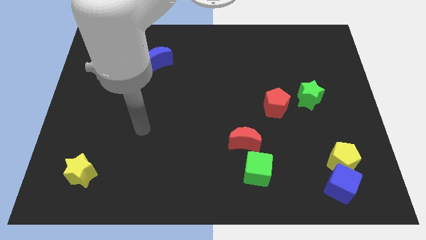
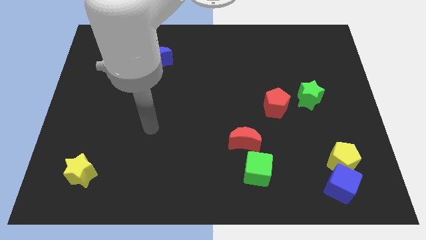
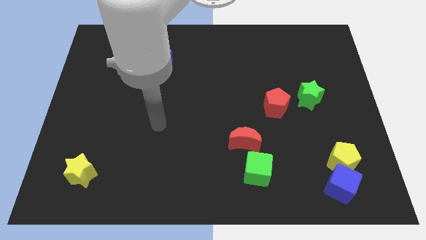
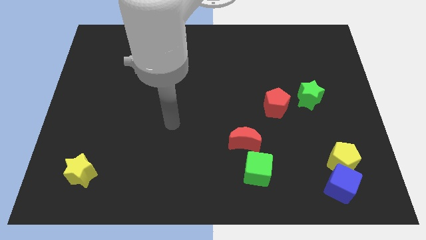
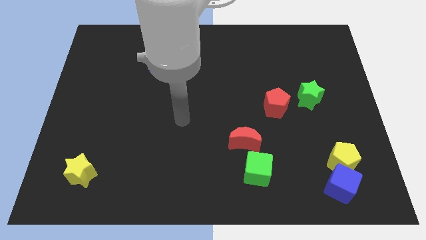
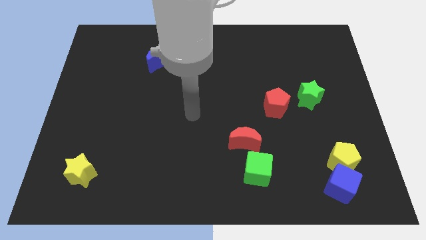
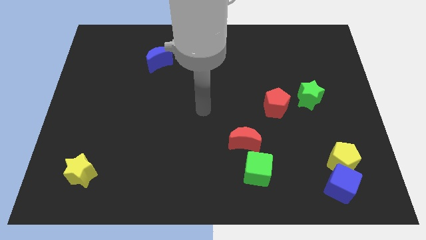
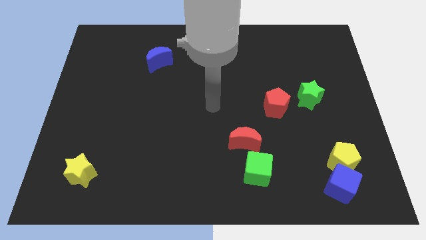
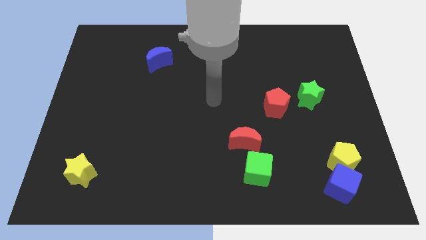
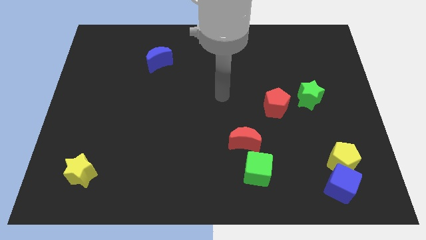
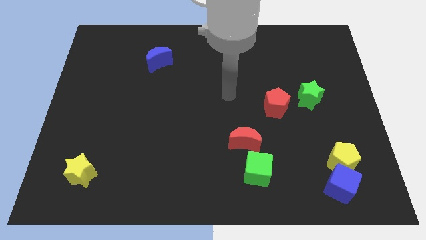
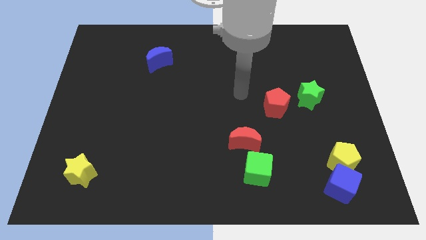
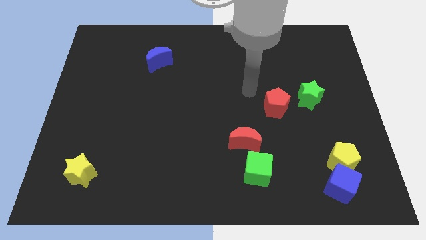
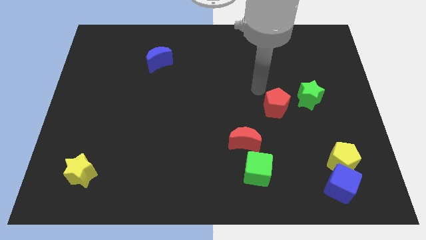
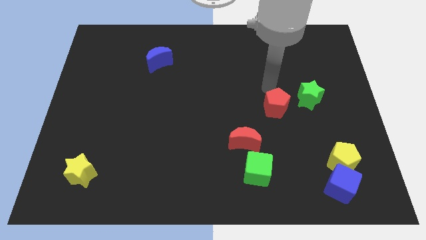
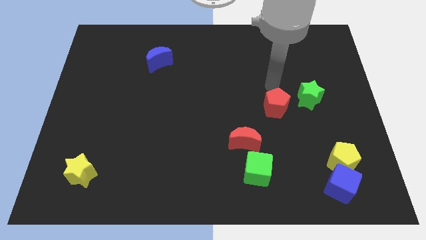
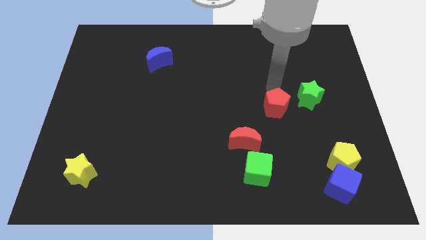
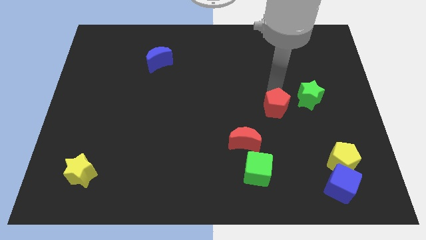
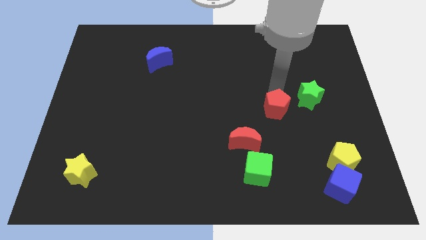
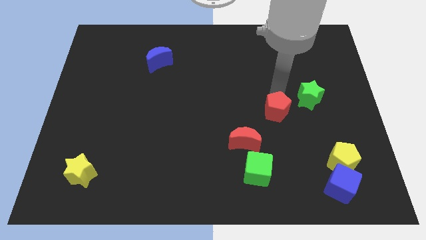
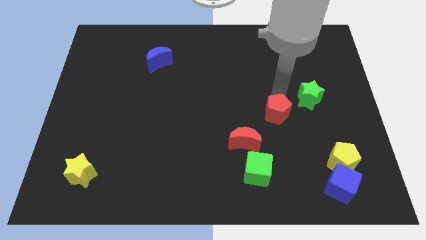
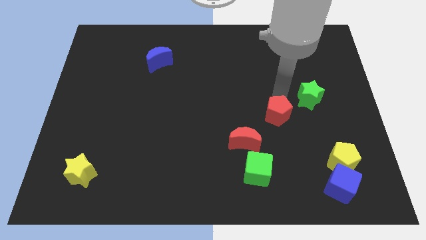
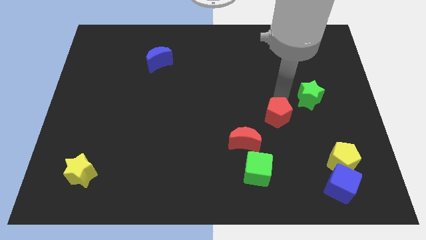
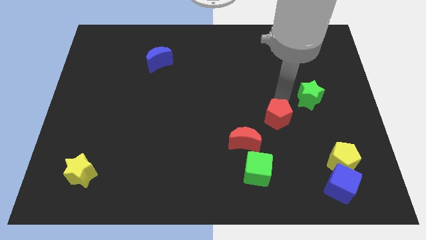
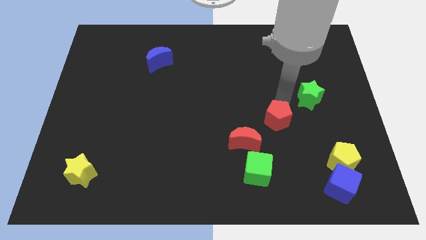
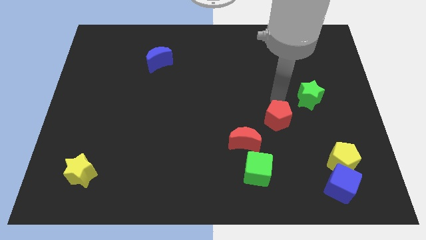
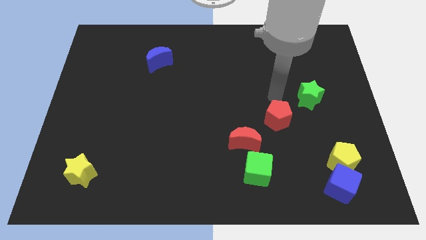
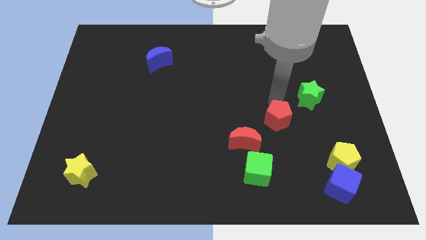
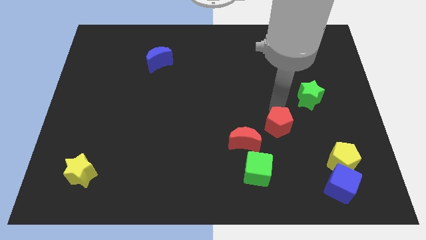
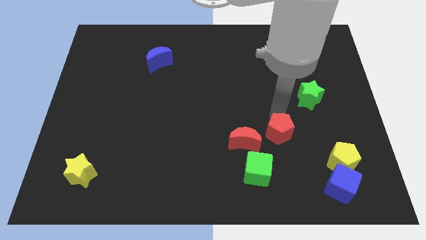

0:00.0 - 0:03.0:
push the red pentagon slightly down

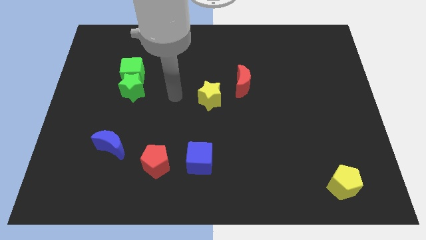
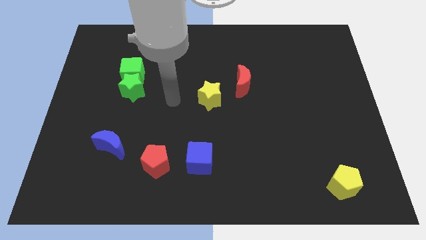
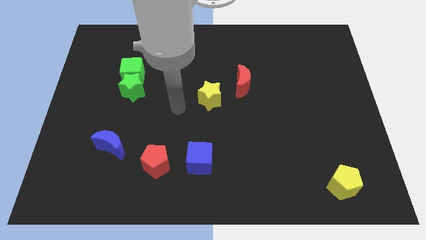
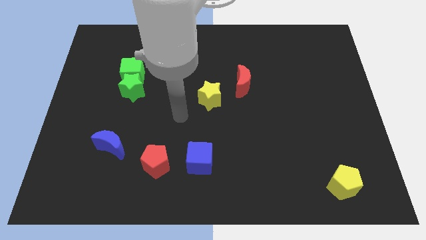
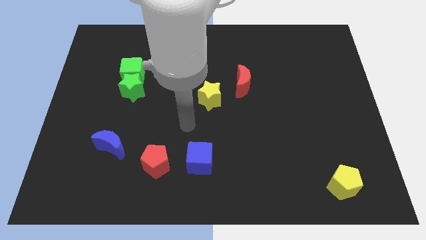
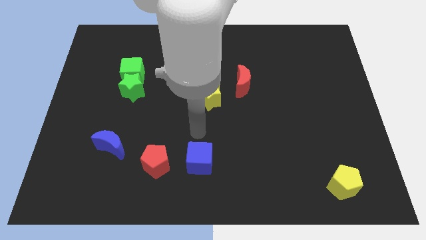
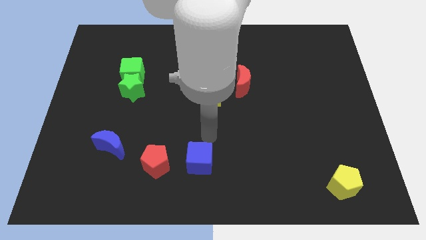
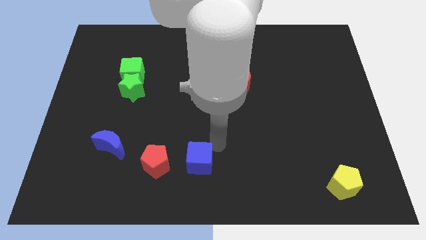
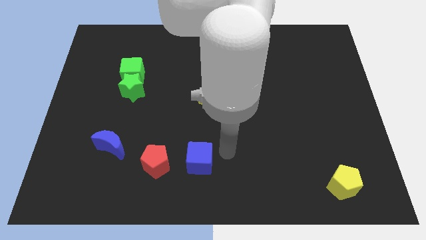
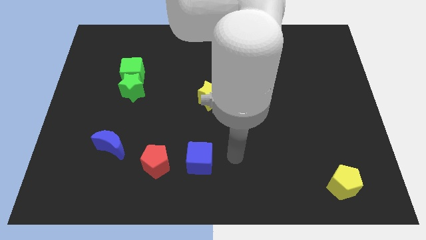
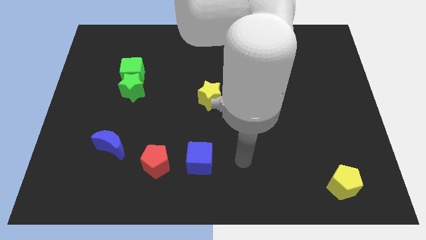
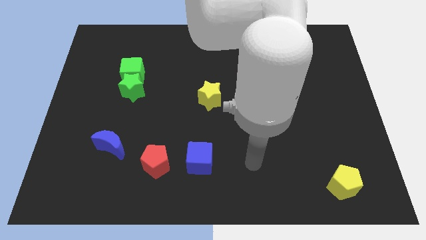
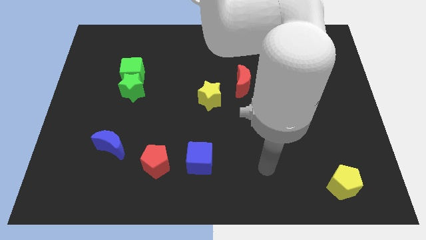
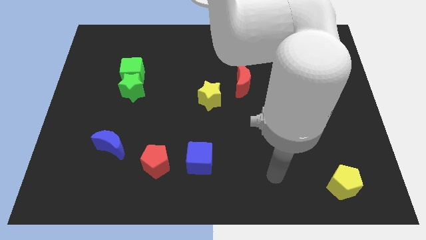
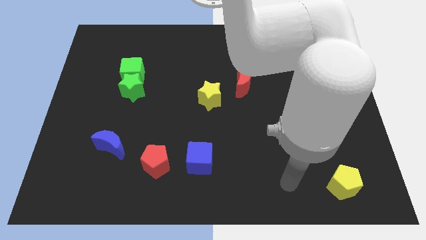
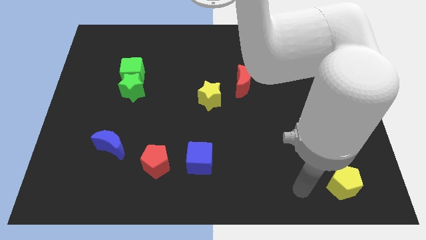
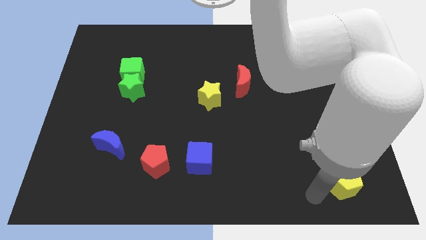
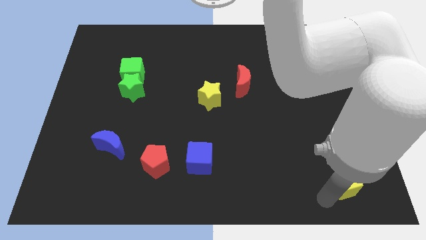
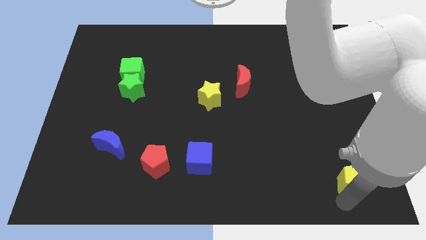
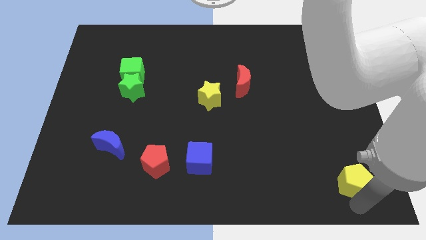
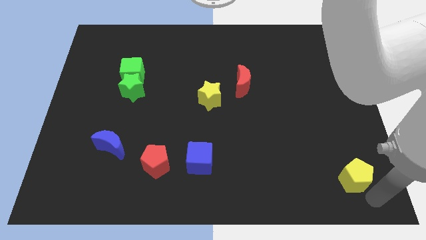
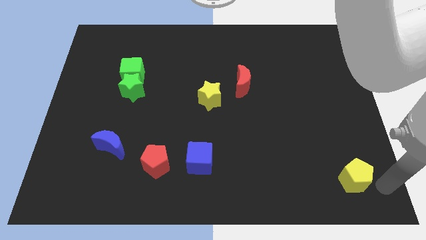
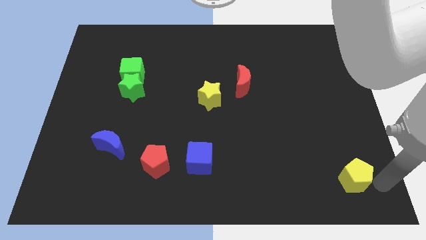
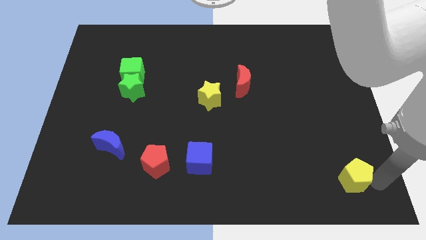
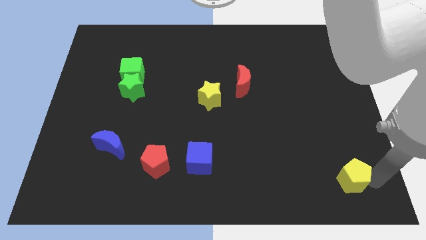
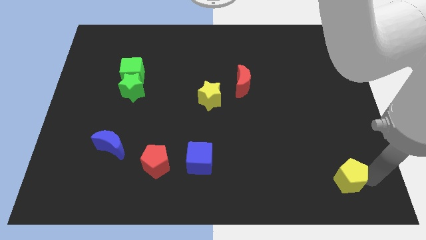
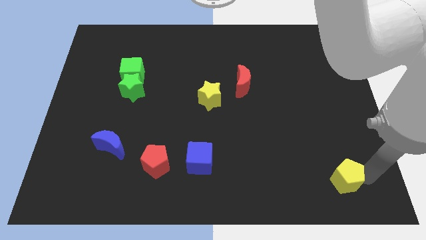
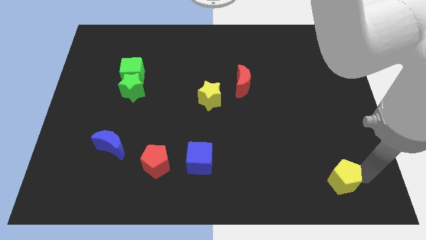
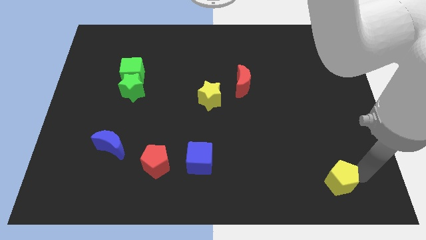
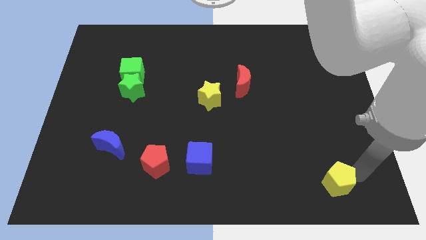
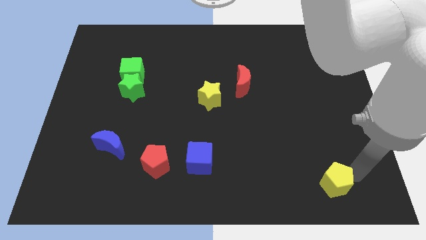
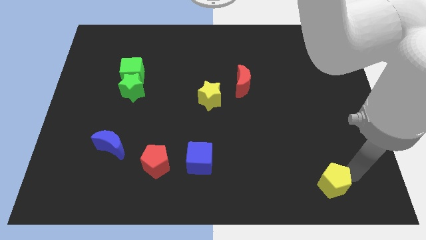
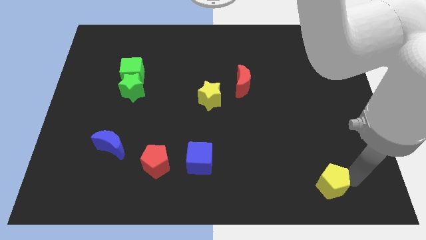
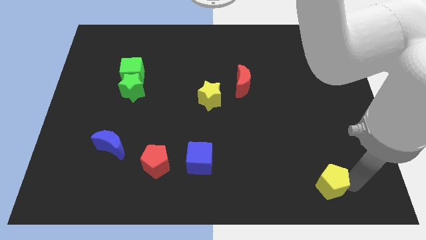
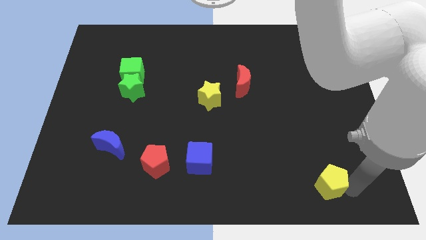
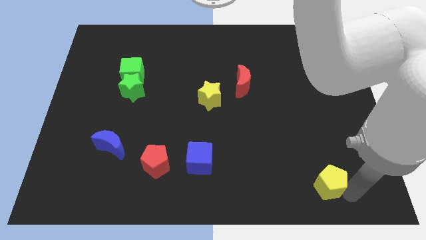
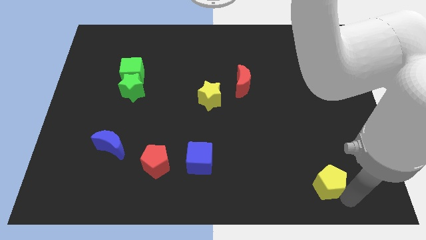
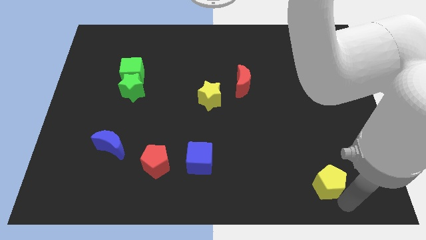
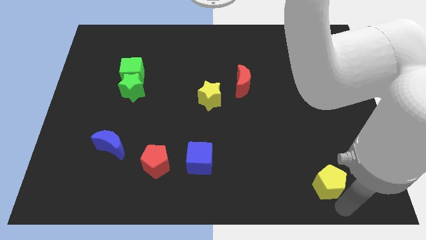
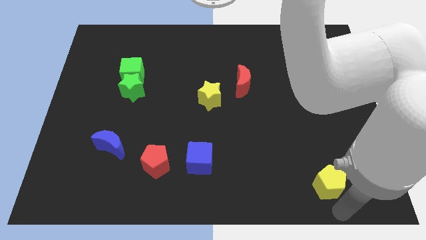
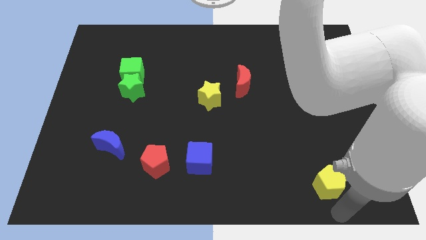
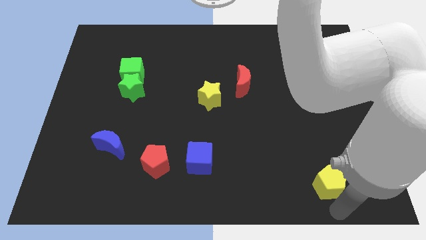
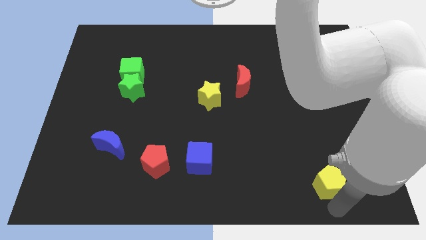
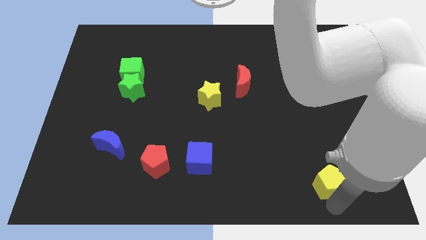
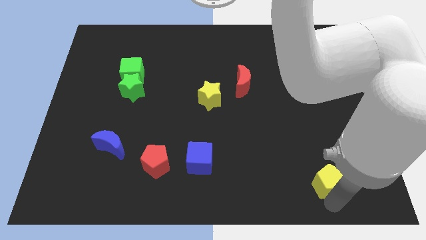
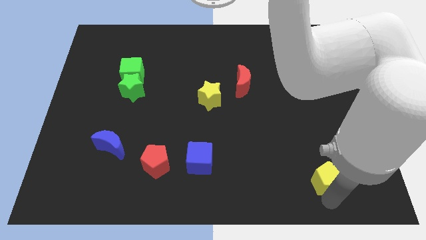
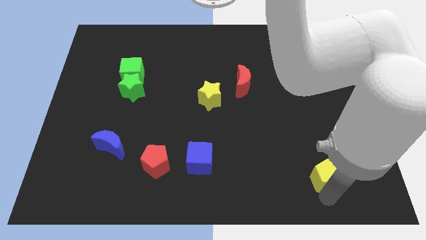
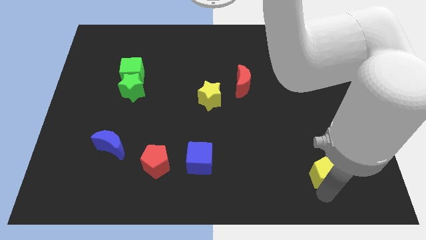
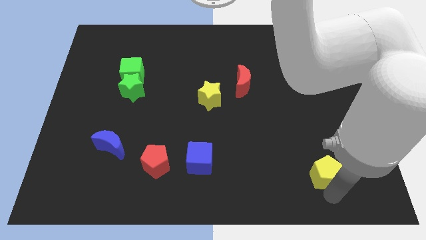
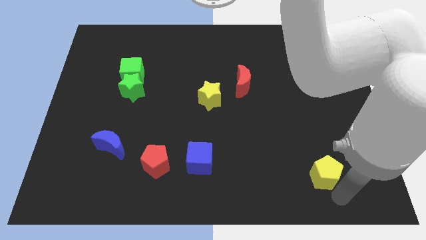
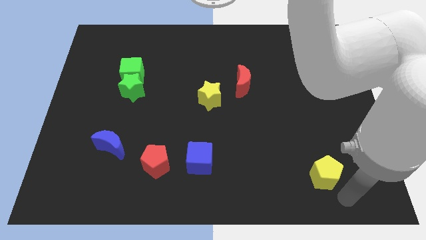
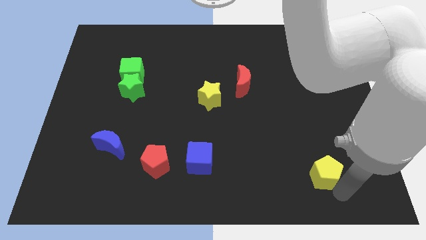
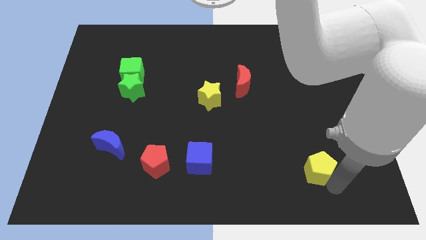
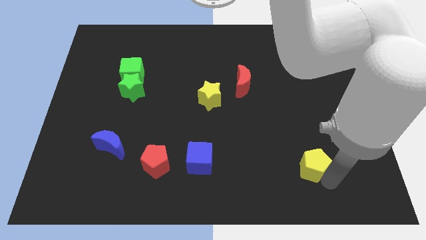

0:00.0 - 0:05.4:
push the yellow pentagon up and left diagonally a little

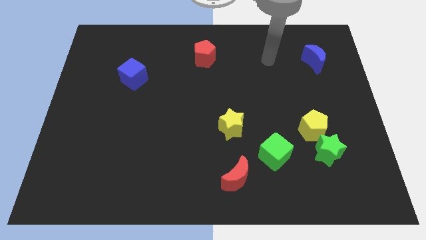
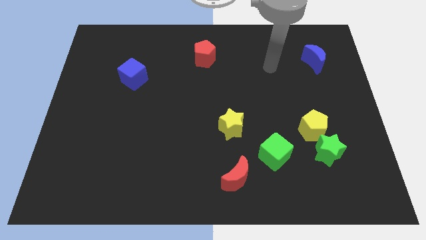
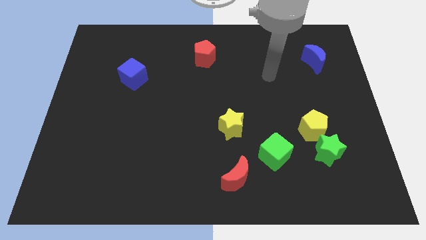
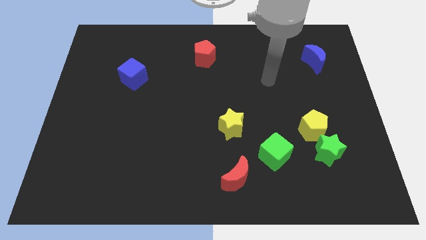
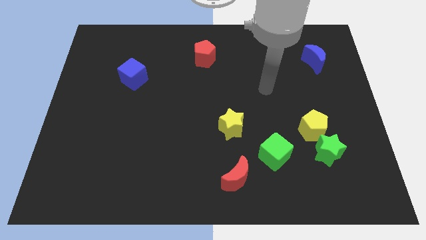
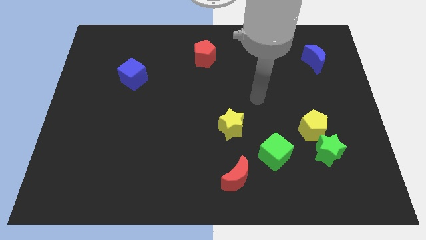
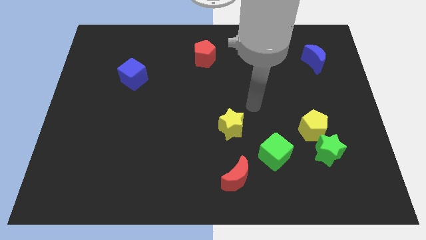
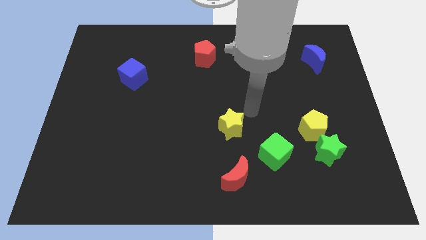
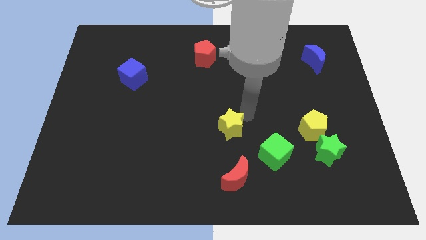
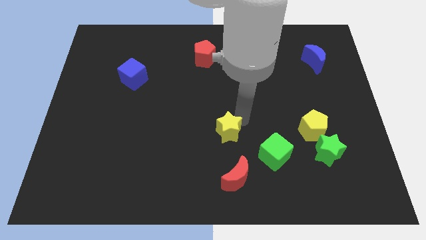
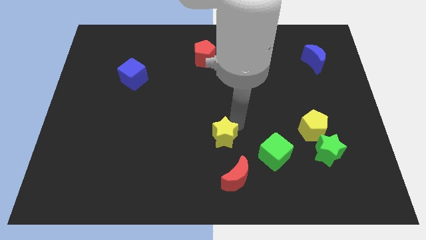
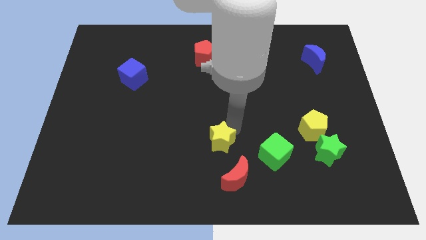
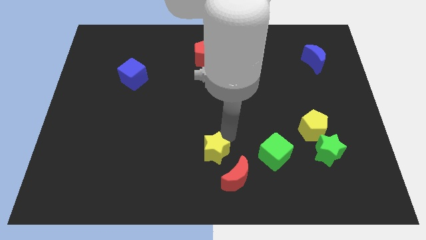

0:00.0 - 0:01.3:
push the yellow star a little bit down and then left
